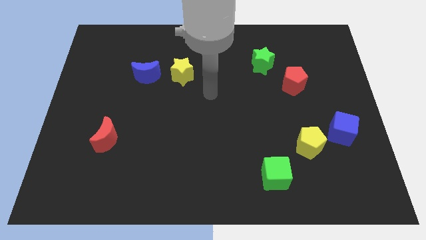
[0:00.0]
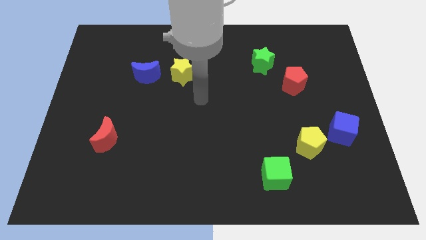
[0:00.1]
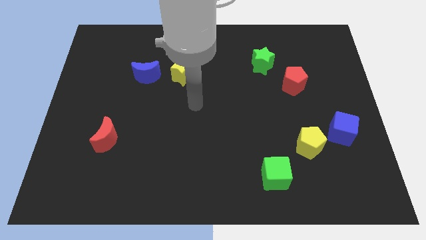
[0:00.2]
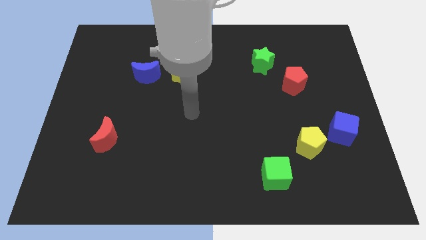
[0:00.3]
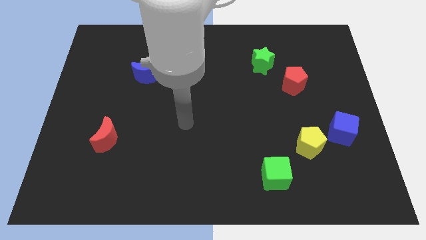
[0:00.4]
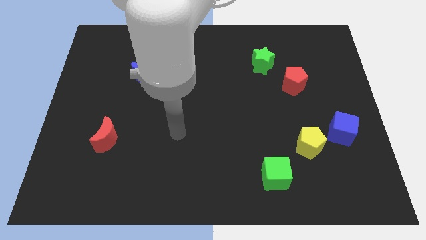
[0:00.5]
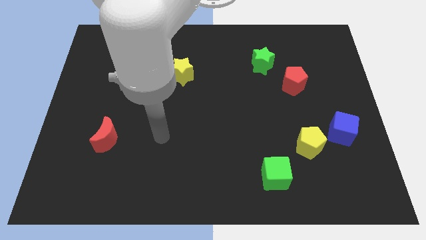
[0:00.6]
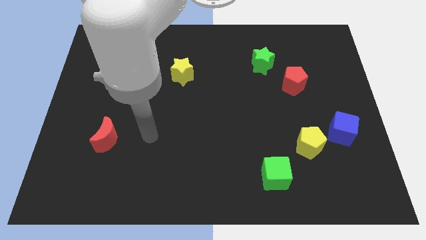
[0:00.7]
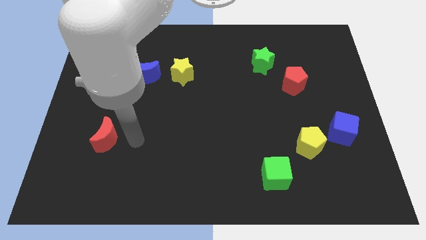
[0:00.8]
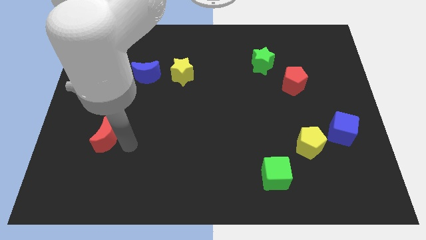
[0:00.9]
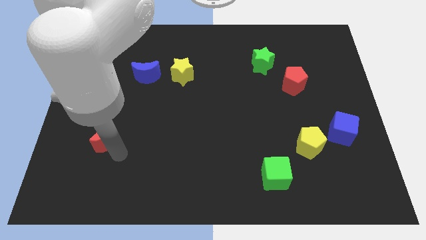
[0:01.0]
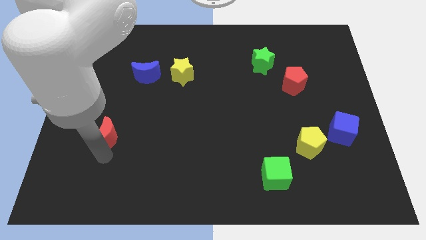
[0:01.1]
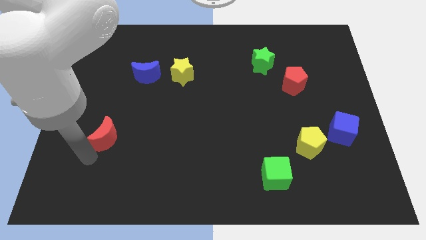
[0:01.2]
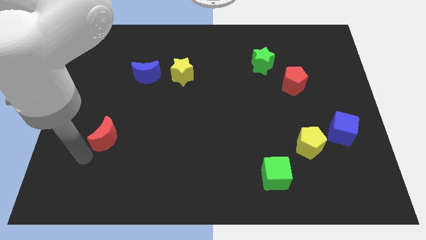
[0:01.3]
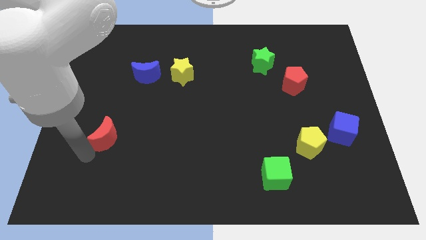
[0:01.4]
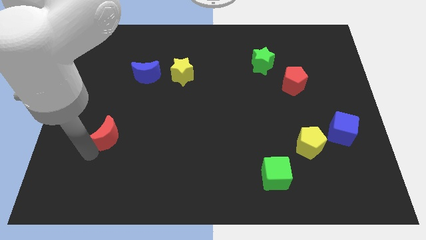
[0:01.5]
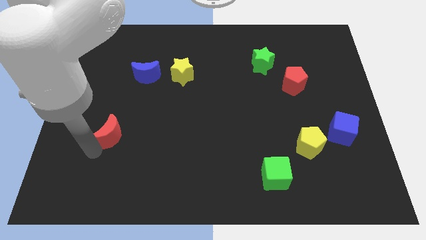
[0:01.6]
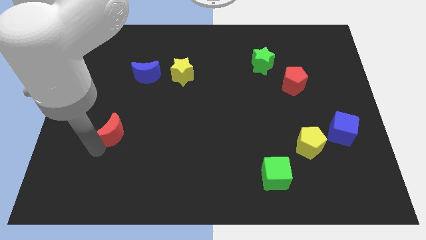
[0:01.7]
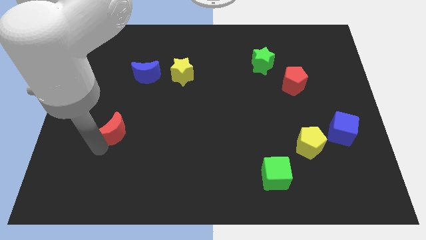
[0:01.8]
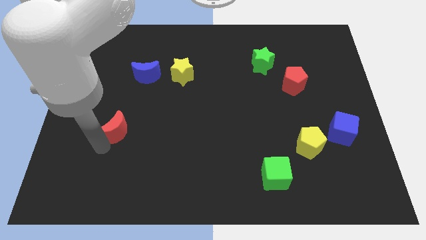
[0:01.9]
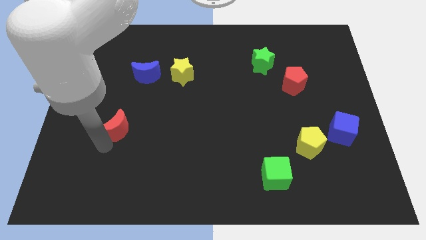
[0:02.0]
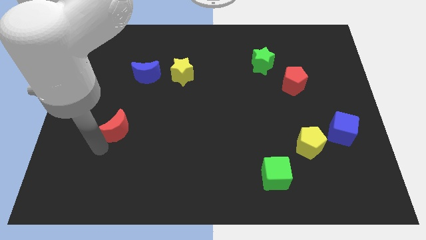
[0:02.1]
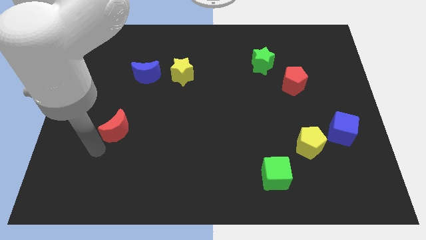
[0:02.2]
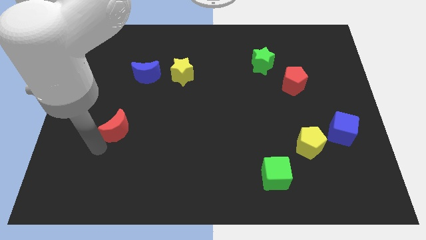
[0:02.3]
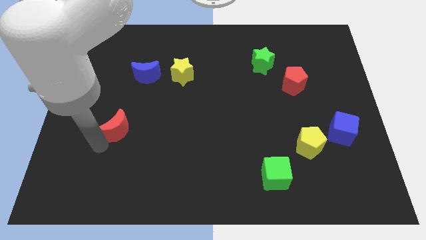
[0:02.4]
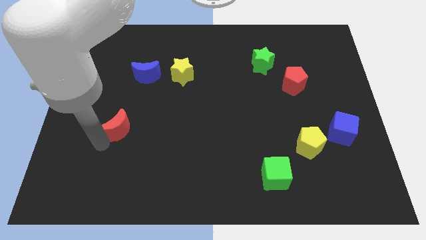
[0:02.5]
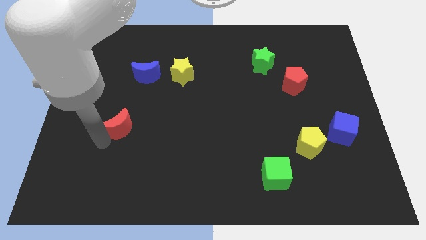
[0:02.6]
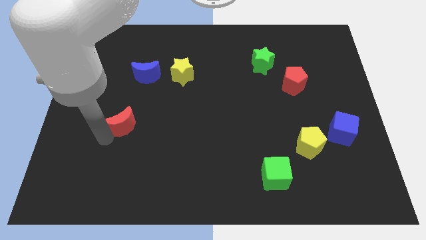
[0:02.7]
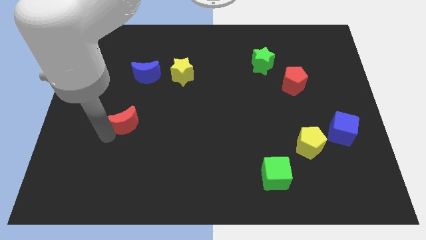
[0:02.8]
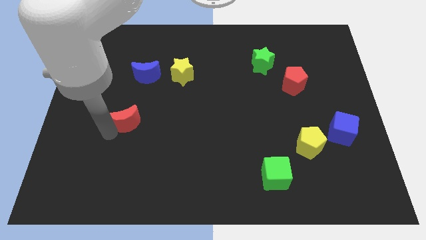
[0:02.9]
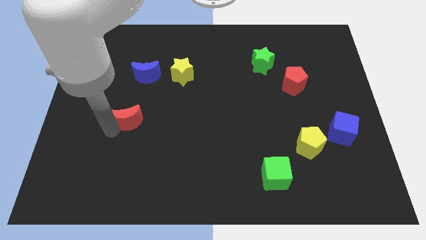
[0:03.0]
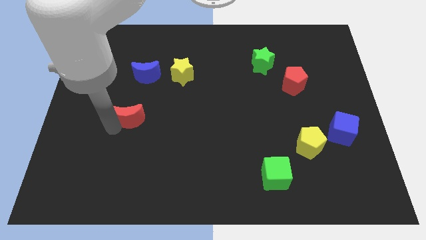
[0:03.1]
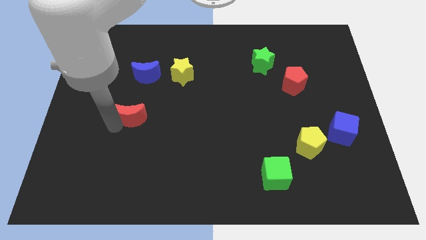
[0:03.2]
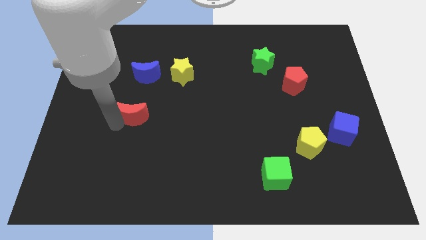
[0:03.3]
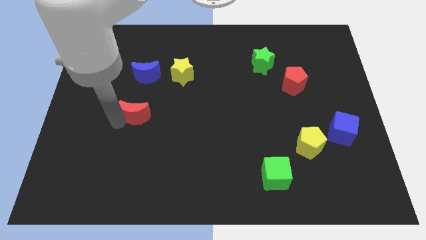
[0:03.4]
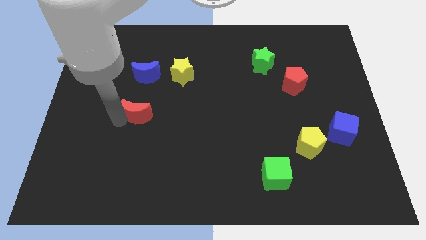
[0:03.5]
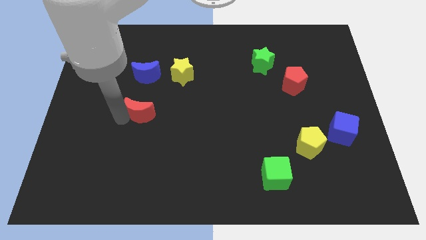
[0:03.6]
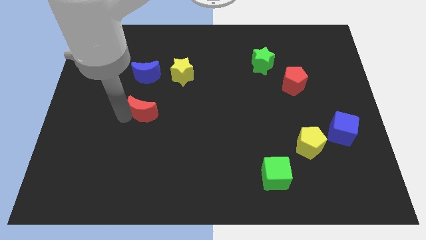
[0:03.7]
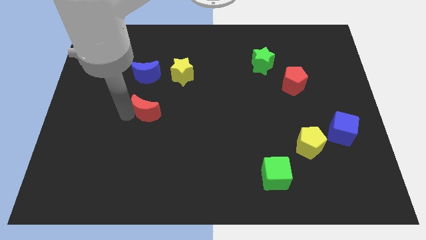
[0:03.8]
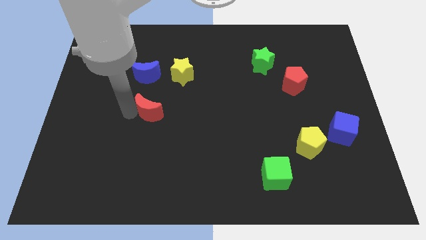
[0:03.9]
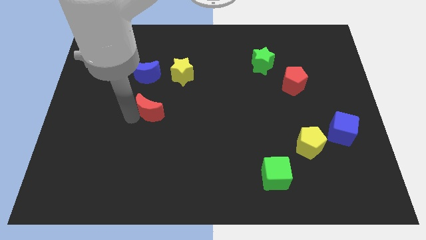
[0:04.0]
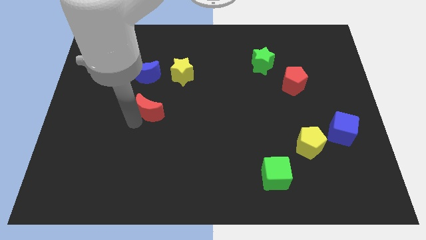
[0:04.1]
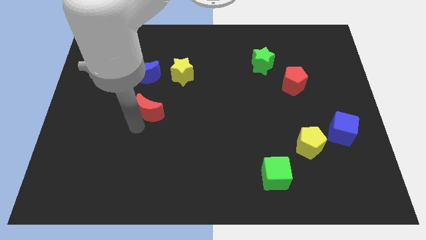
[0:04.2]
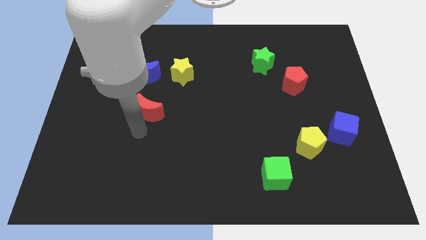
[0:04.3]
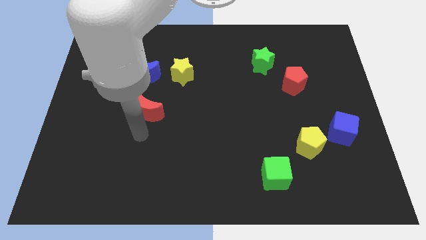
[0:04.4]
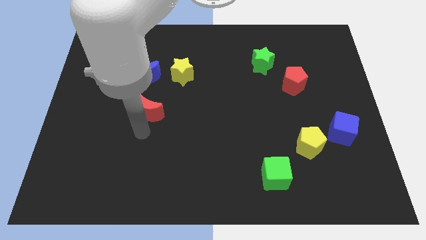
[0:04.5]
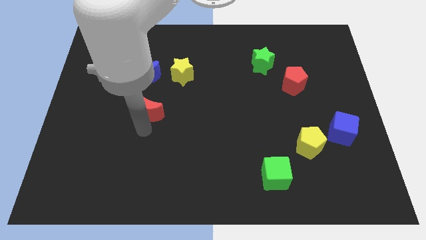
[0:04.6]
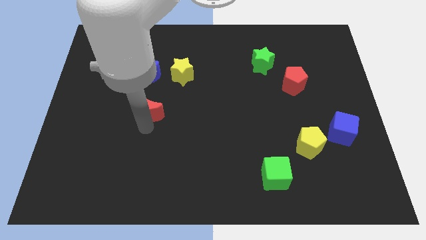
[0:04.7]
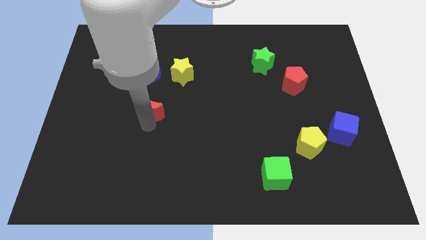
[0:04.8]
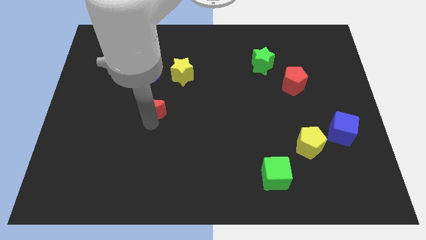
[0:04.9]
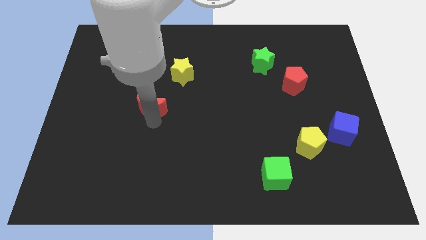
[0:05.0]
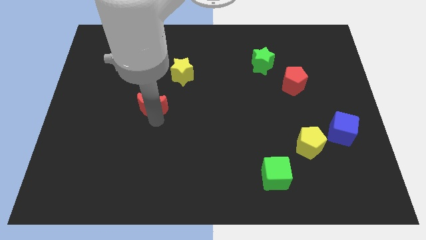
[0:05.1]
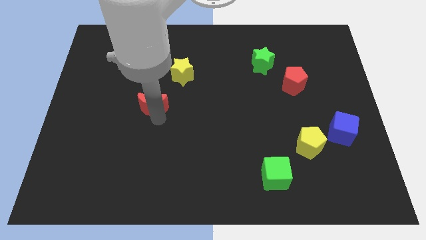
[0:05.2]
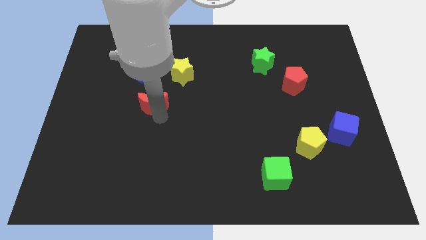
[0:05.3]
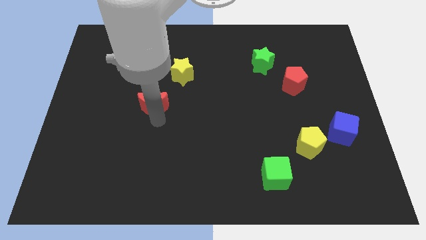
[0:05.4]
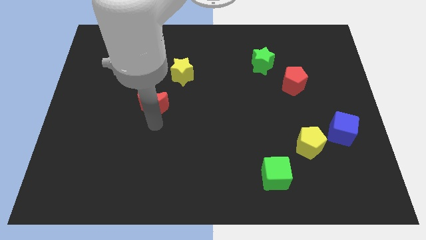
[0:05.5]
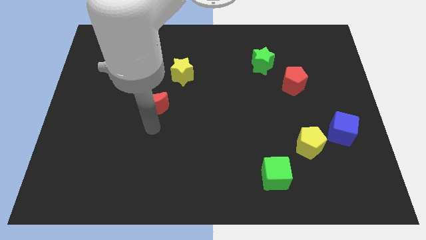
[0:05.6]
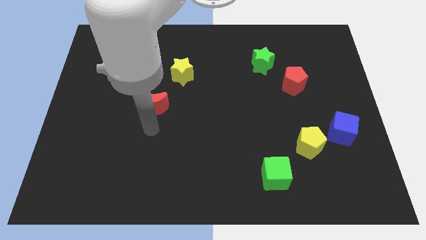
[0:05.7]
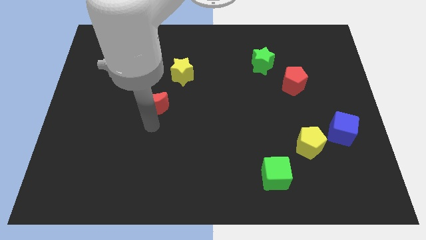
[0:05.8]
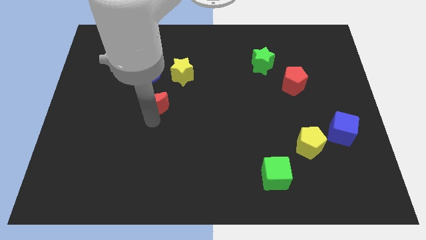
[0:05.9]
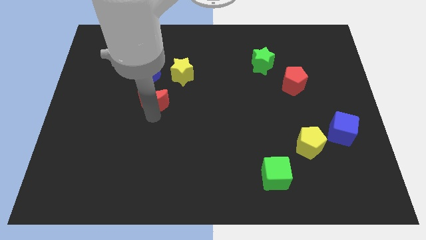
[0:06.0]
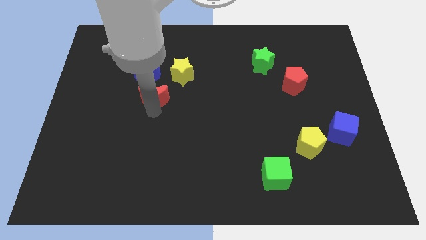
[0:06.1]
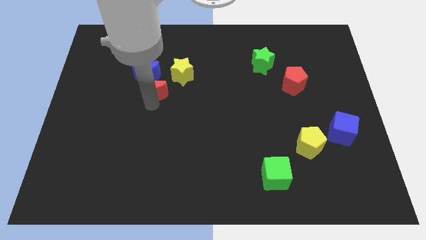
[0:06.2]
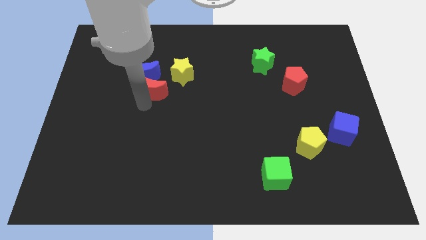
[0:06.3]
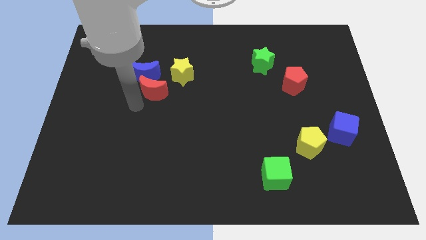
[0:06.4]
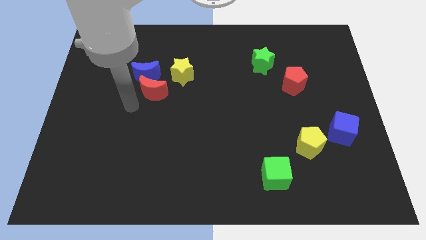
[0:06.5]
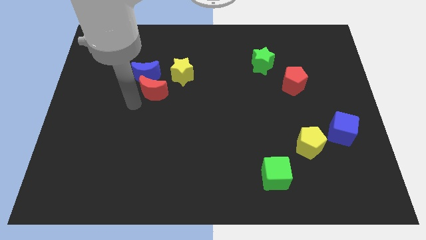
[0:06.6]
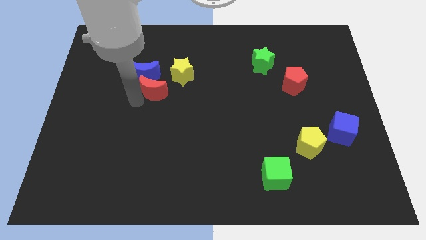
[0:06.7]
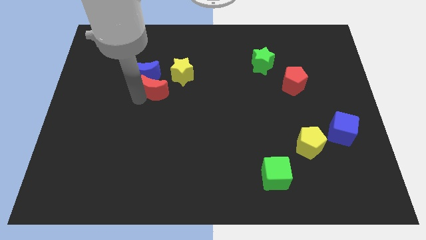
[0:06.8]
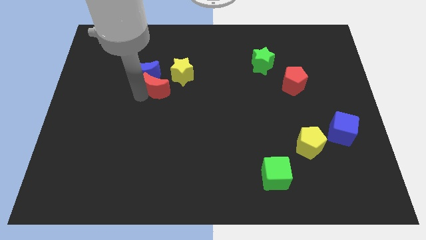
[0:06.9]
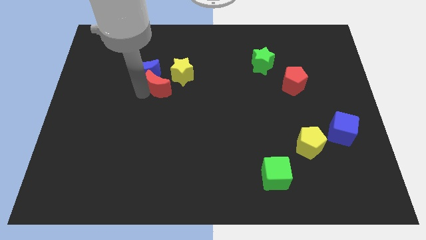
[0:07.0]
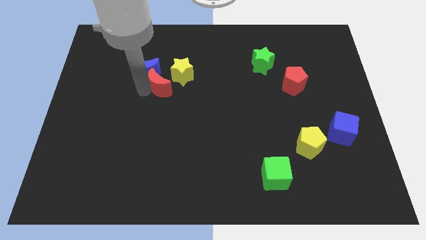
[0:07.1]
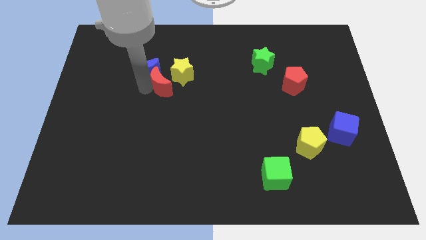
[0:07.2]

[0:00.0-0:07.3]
slide the red moon to the yellow star

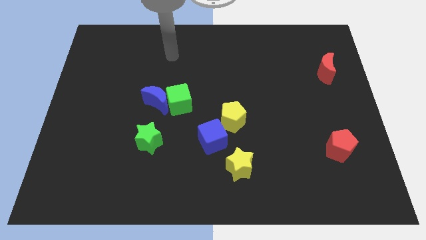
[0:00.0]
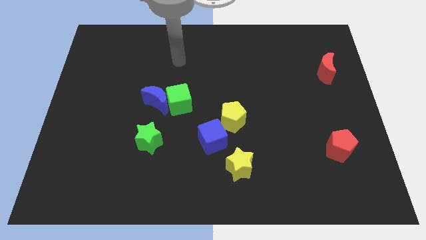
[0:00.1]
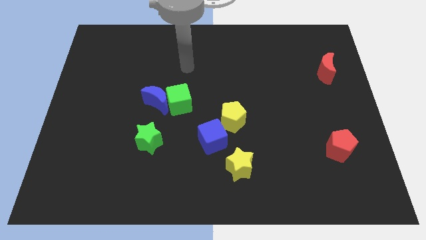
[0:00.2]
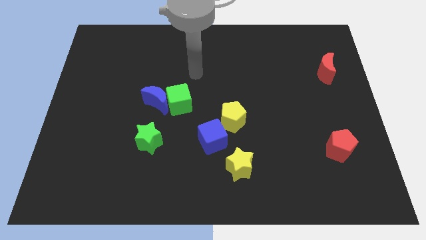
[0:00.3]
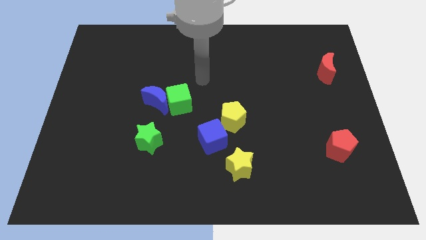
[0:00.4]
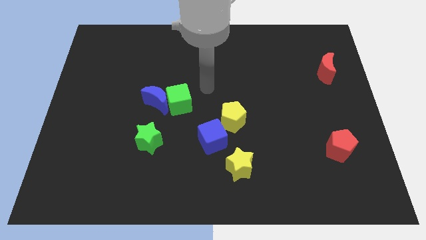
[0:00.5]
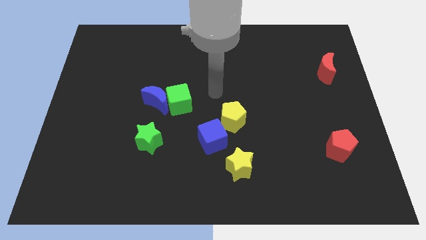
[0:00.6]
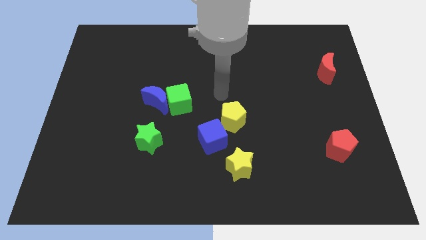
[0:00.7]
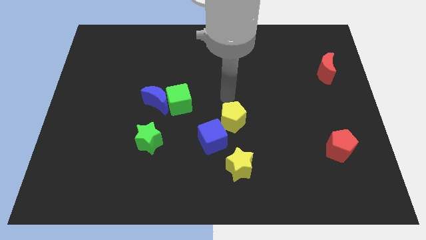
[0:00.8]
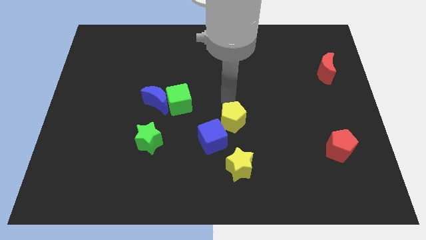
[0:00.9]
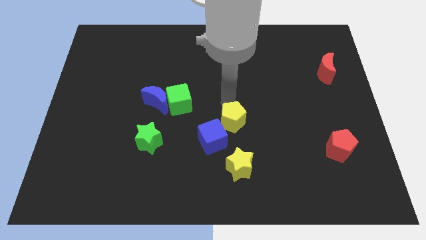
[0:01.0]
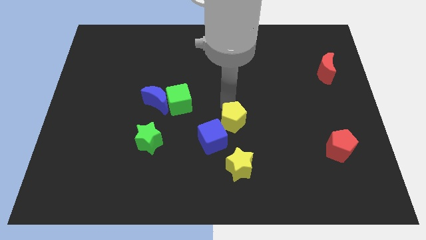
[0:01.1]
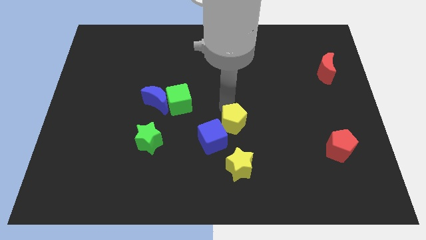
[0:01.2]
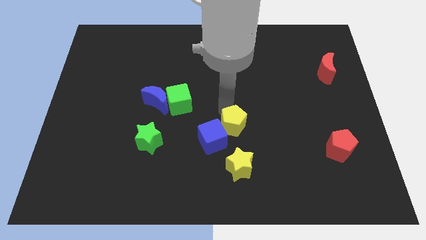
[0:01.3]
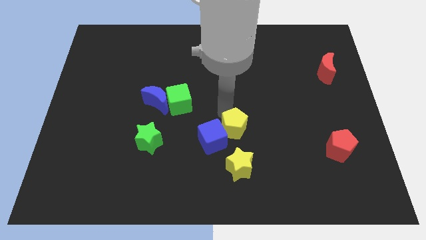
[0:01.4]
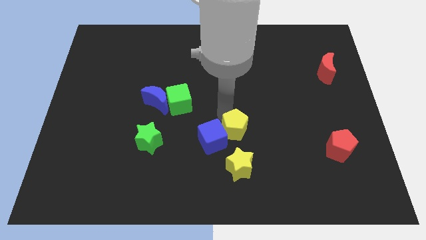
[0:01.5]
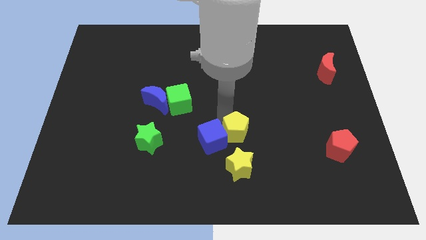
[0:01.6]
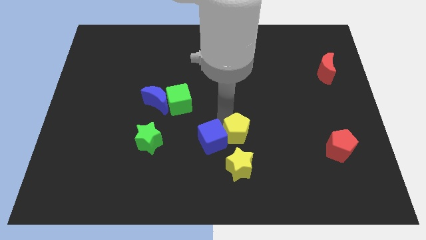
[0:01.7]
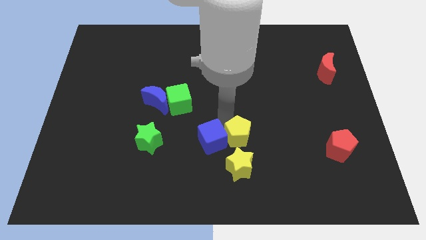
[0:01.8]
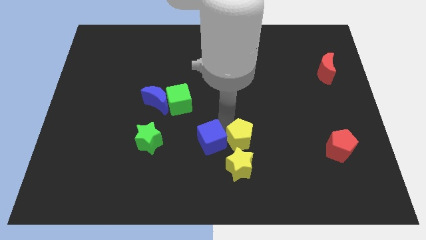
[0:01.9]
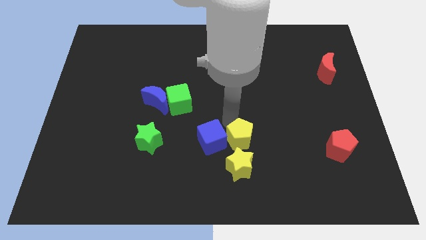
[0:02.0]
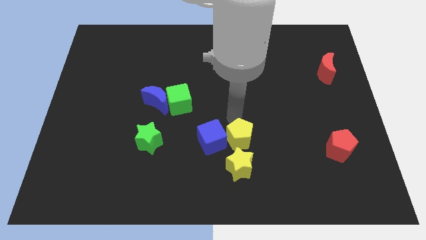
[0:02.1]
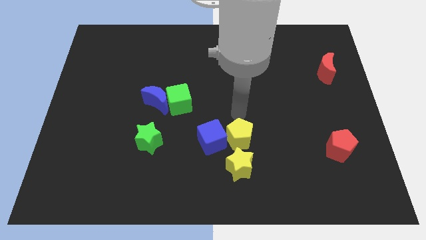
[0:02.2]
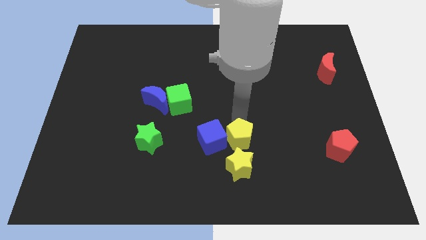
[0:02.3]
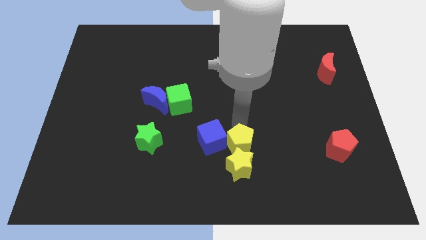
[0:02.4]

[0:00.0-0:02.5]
put the yellow pentagon to the yellow star
